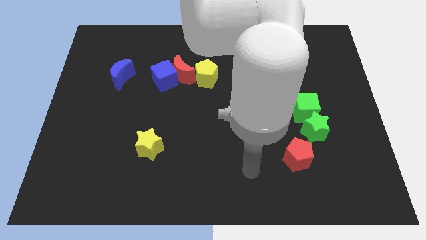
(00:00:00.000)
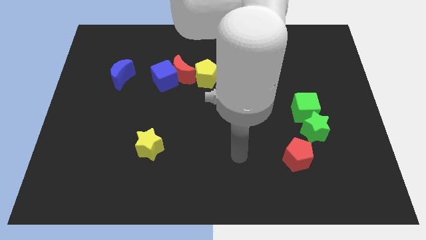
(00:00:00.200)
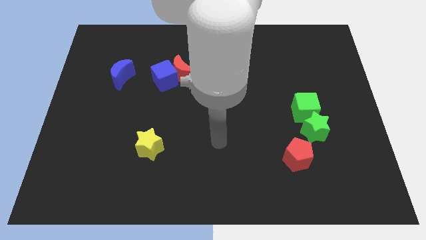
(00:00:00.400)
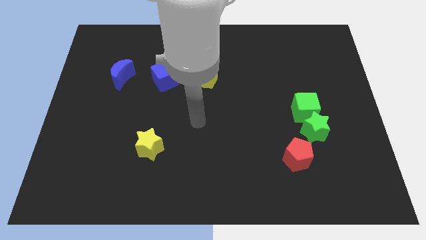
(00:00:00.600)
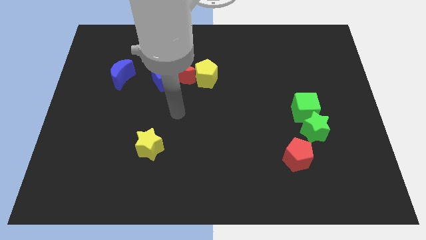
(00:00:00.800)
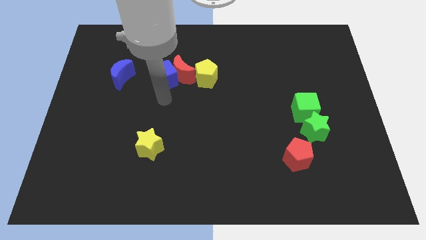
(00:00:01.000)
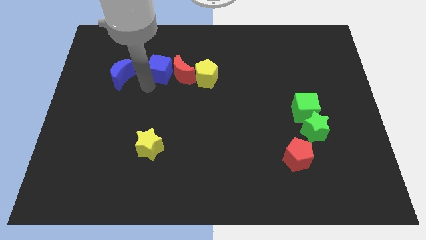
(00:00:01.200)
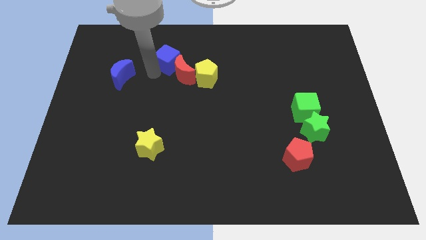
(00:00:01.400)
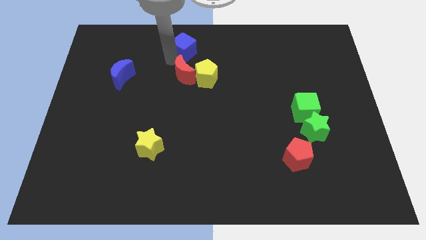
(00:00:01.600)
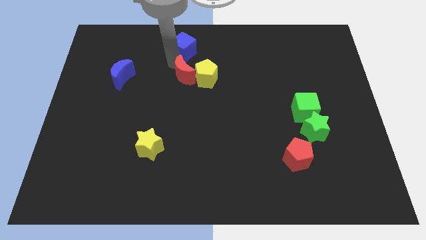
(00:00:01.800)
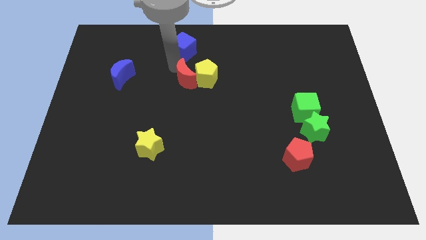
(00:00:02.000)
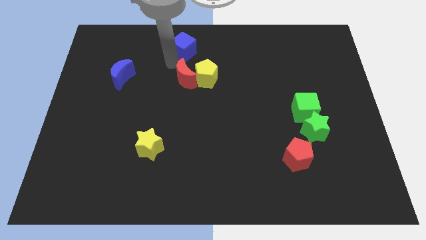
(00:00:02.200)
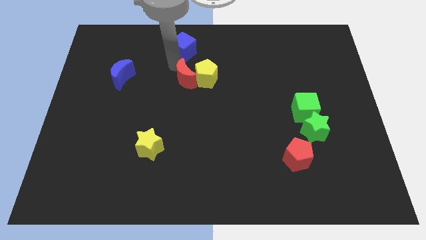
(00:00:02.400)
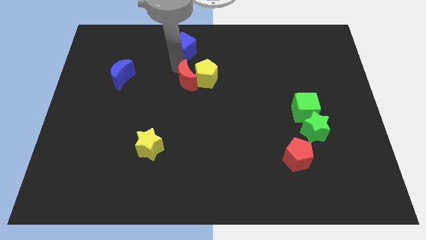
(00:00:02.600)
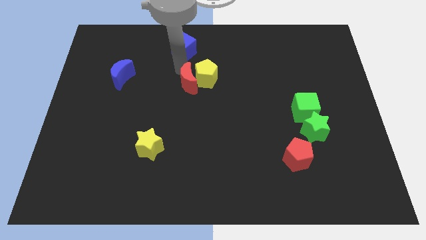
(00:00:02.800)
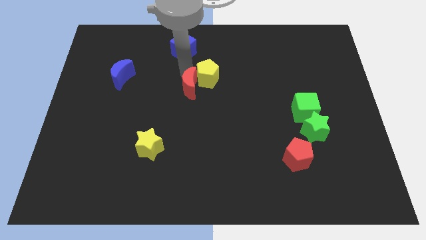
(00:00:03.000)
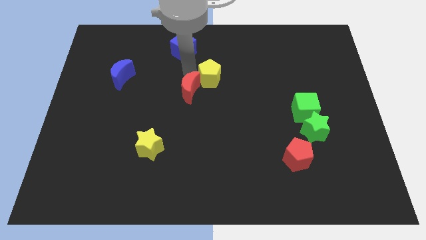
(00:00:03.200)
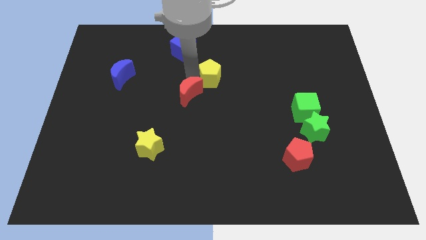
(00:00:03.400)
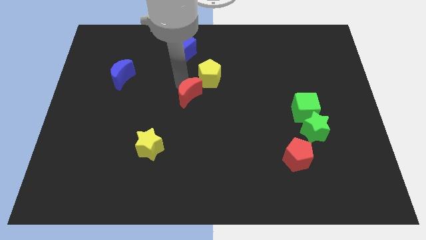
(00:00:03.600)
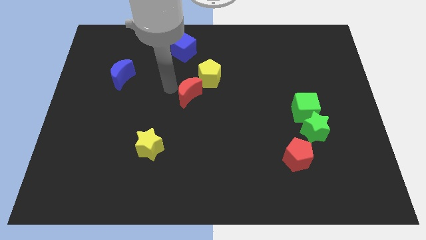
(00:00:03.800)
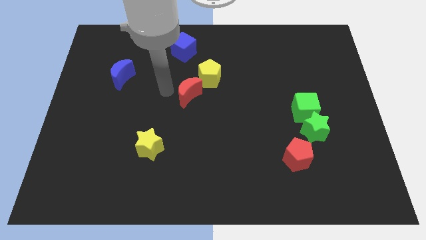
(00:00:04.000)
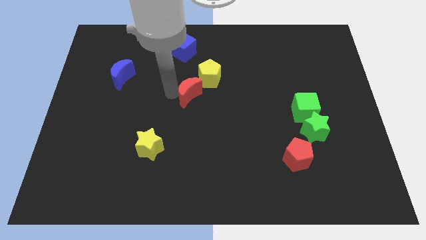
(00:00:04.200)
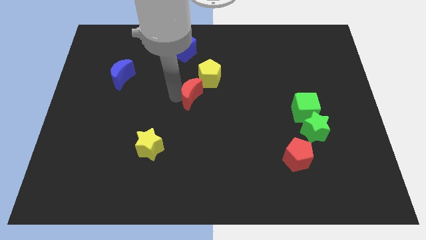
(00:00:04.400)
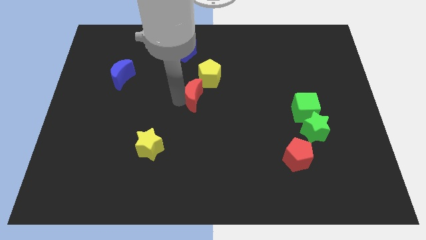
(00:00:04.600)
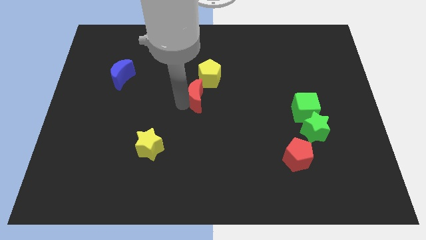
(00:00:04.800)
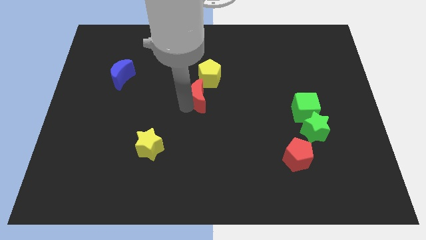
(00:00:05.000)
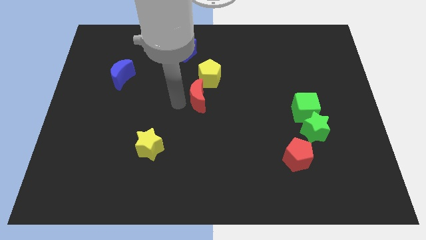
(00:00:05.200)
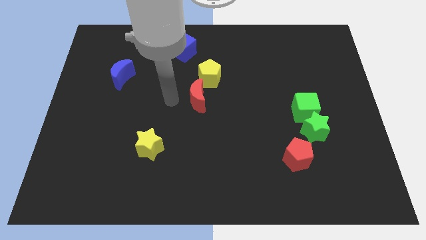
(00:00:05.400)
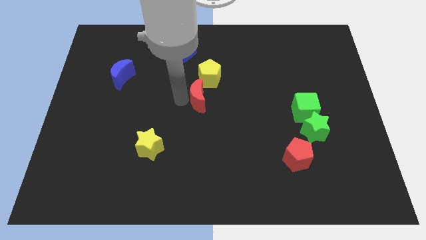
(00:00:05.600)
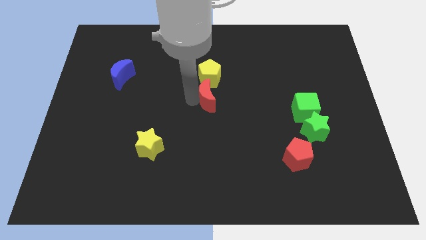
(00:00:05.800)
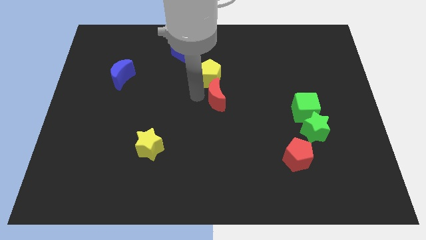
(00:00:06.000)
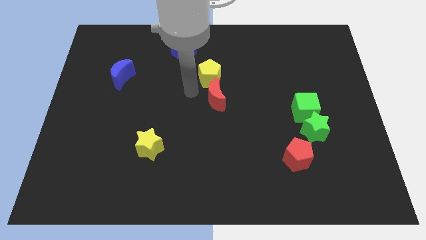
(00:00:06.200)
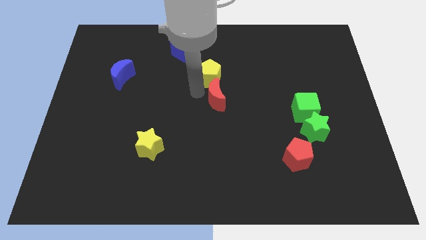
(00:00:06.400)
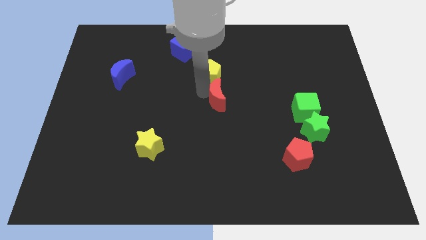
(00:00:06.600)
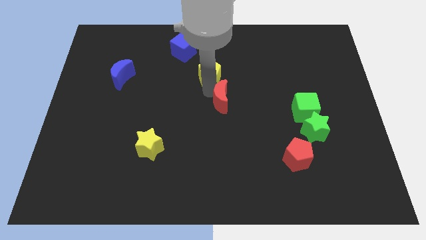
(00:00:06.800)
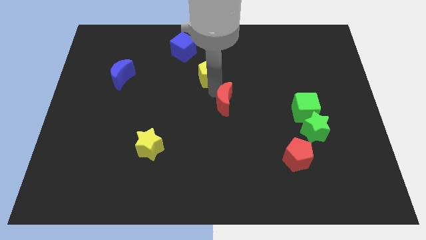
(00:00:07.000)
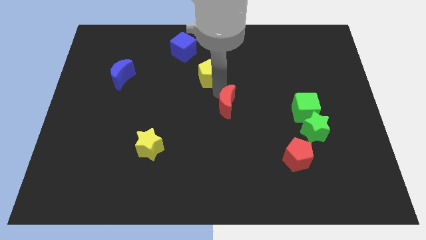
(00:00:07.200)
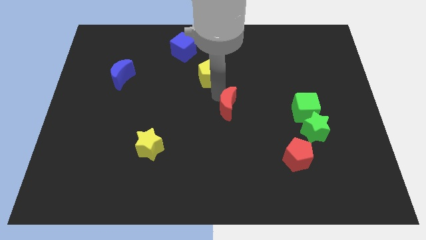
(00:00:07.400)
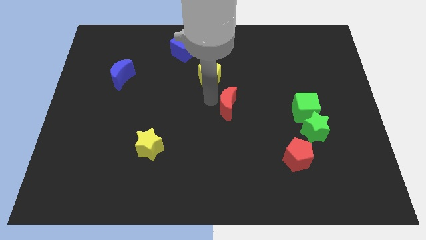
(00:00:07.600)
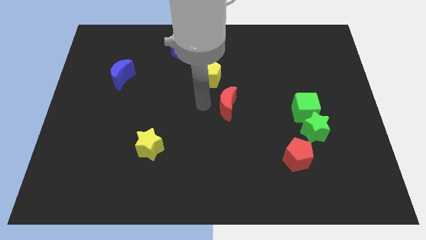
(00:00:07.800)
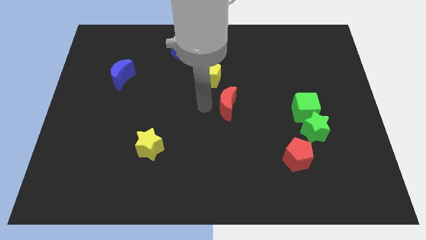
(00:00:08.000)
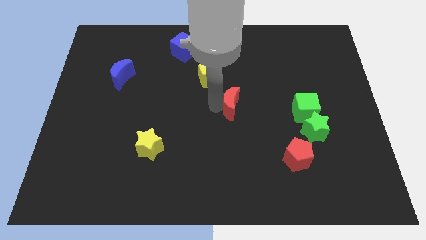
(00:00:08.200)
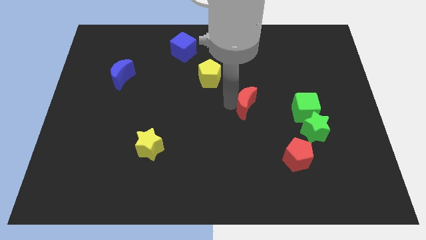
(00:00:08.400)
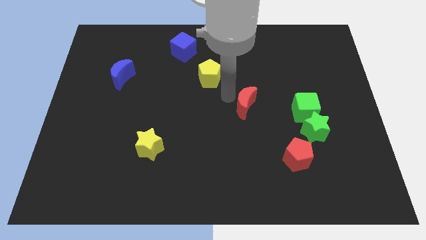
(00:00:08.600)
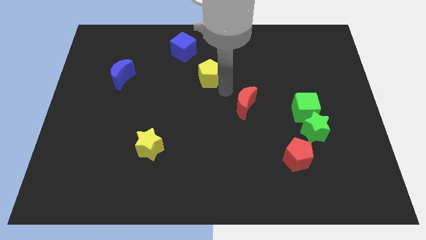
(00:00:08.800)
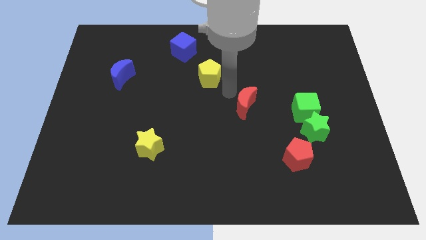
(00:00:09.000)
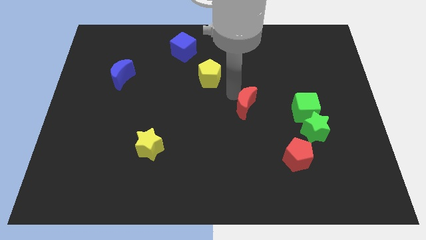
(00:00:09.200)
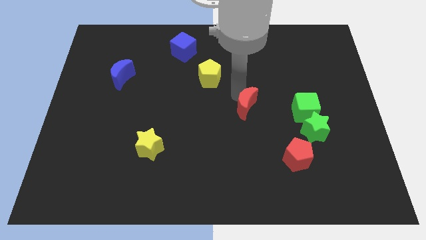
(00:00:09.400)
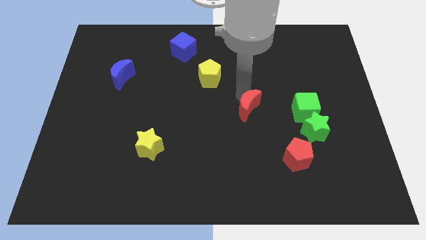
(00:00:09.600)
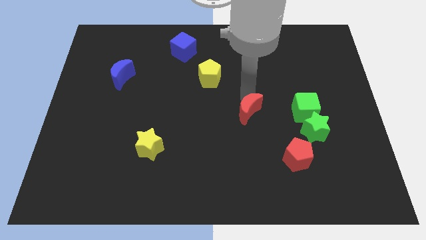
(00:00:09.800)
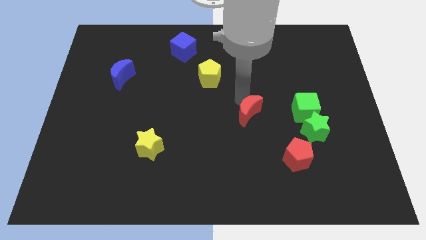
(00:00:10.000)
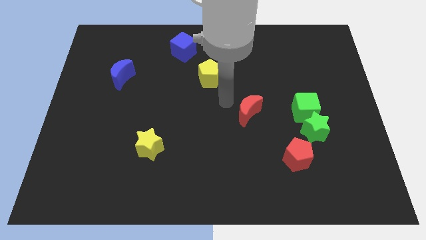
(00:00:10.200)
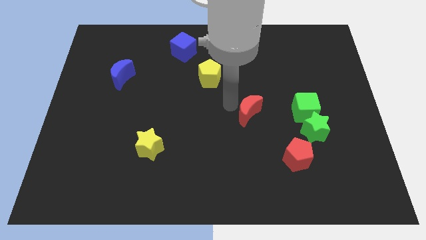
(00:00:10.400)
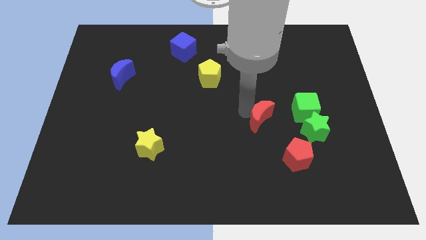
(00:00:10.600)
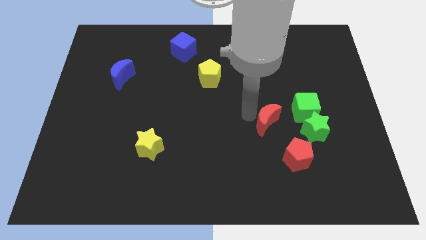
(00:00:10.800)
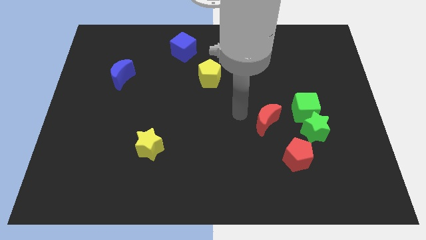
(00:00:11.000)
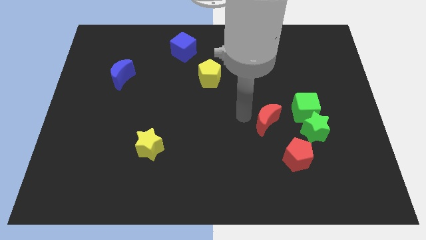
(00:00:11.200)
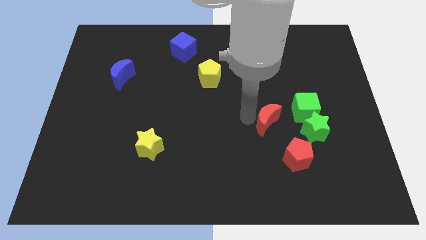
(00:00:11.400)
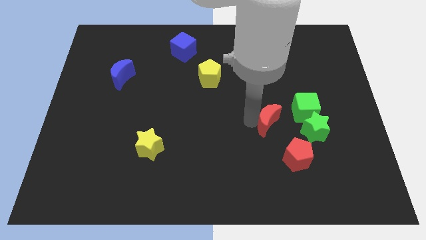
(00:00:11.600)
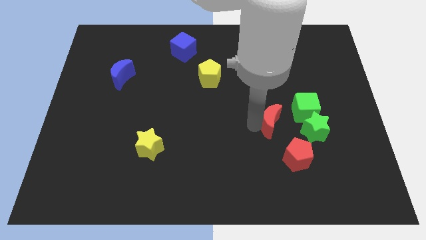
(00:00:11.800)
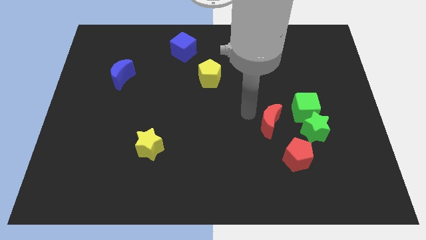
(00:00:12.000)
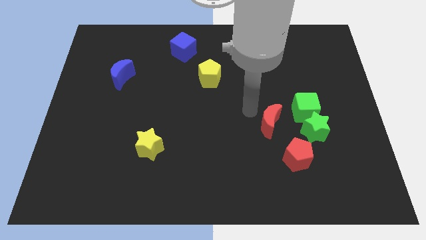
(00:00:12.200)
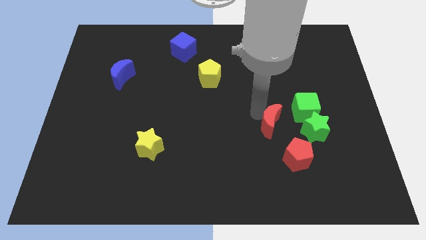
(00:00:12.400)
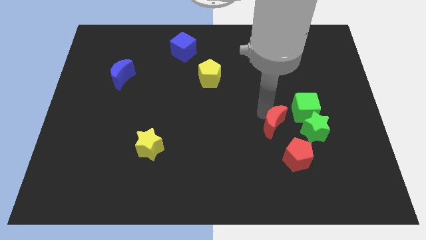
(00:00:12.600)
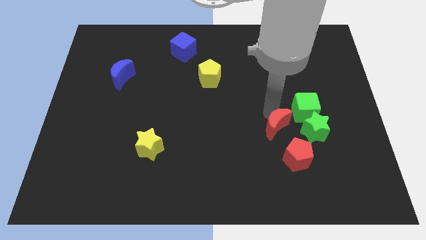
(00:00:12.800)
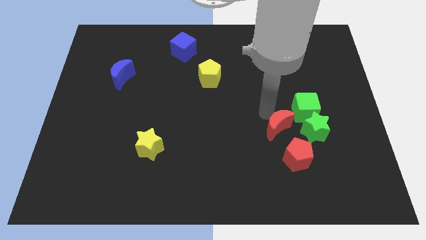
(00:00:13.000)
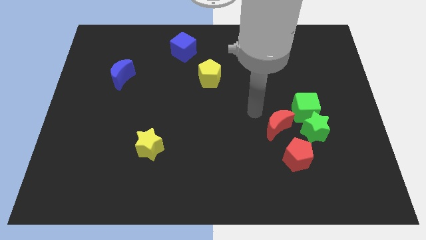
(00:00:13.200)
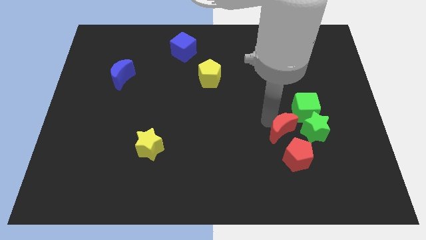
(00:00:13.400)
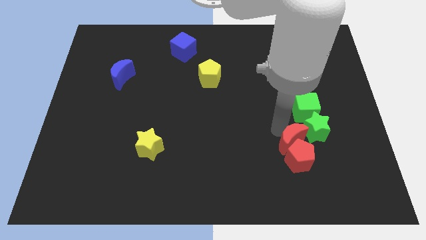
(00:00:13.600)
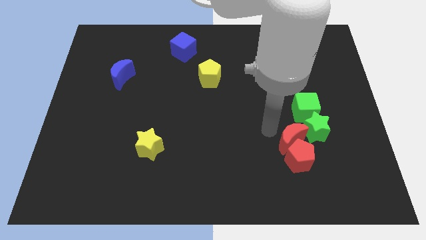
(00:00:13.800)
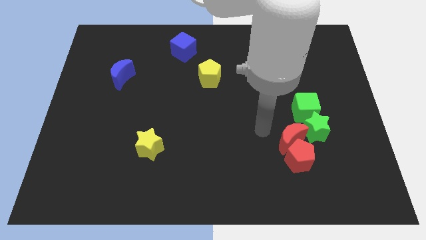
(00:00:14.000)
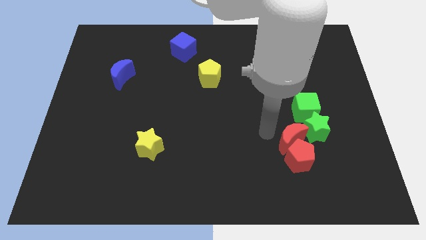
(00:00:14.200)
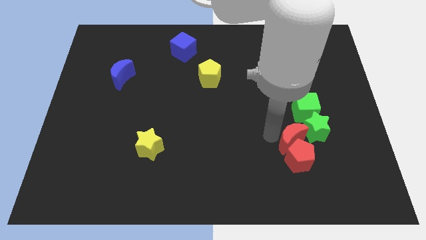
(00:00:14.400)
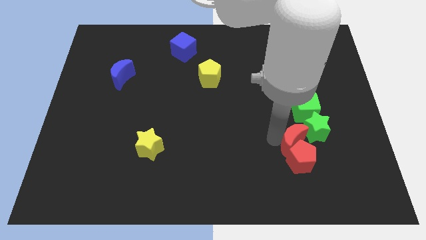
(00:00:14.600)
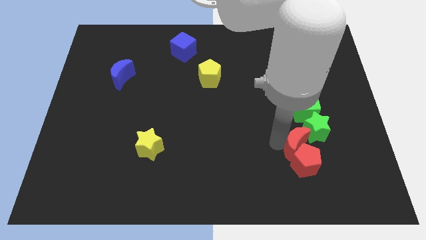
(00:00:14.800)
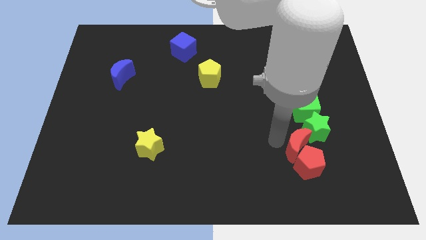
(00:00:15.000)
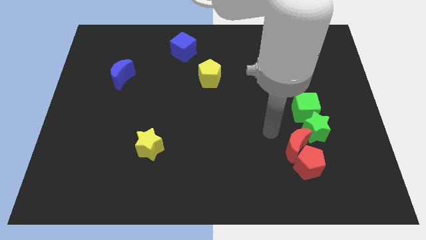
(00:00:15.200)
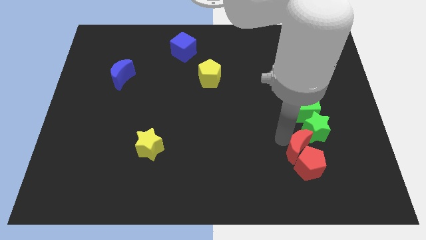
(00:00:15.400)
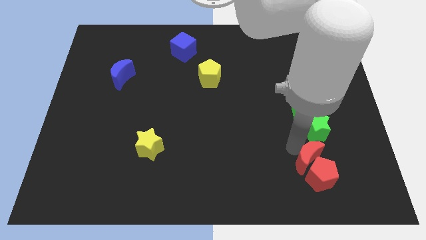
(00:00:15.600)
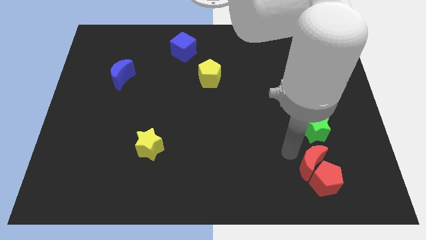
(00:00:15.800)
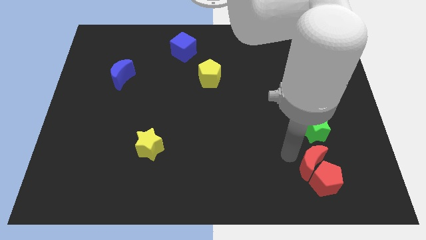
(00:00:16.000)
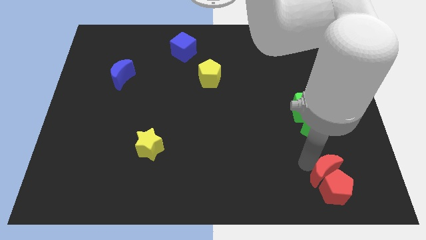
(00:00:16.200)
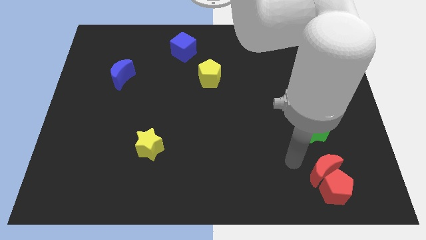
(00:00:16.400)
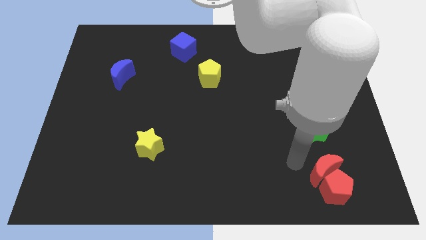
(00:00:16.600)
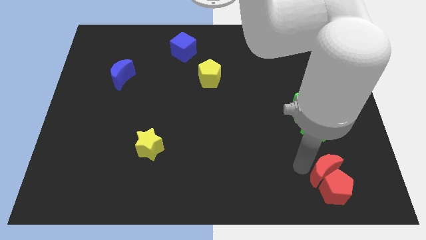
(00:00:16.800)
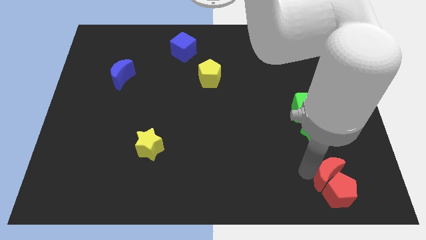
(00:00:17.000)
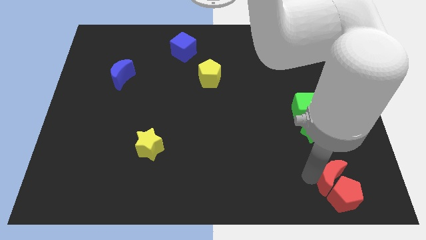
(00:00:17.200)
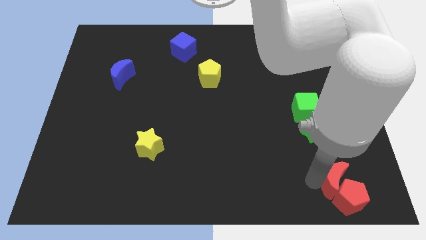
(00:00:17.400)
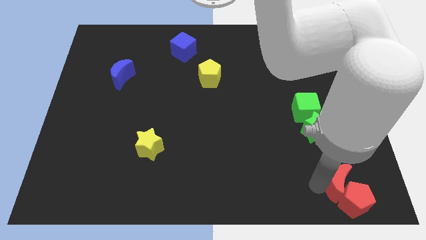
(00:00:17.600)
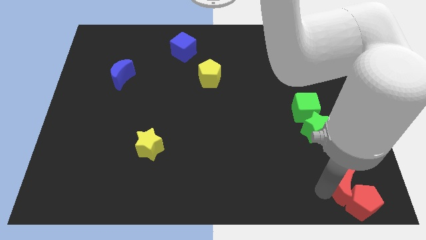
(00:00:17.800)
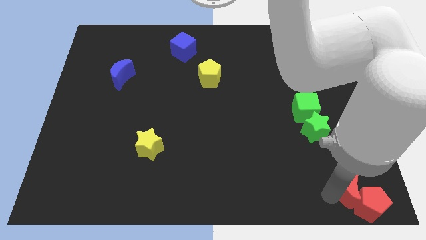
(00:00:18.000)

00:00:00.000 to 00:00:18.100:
push the red moon to the bottom right of the board
